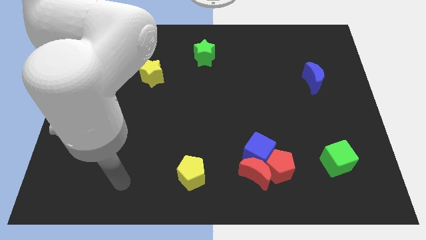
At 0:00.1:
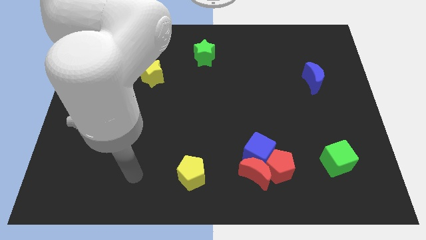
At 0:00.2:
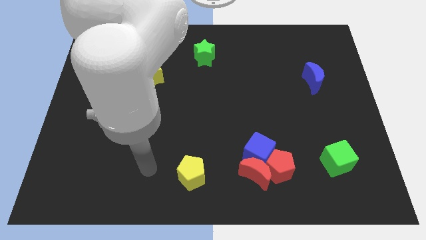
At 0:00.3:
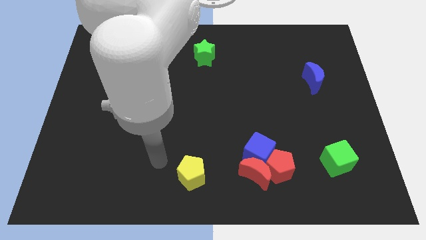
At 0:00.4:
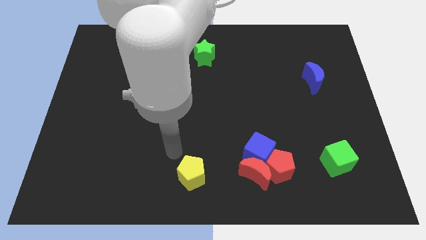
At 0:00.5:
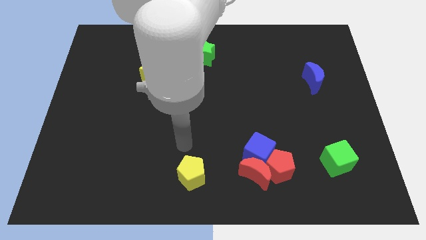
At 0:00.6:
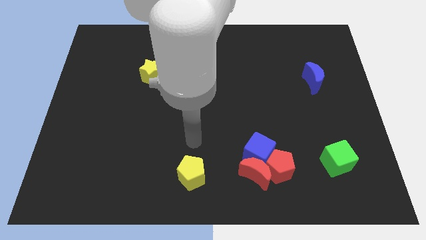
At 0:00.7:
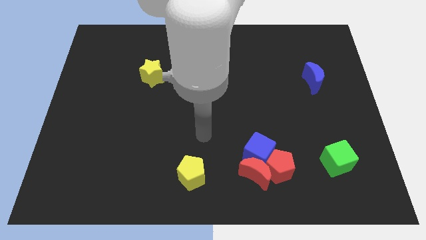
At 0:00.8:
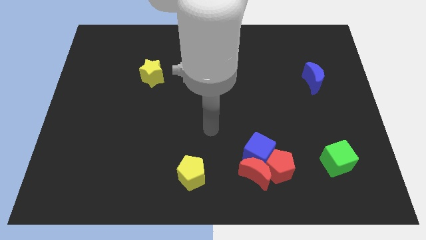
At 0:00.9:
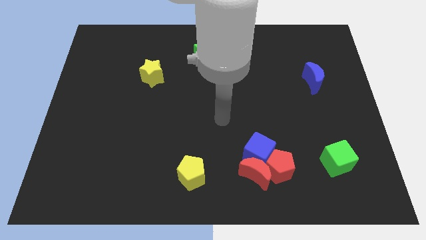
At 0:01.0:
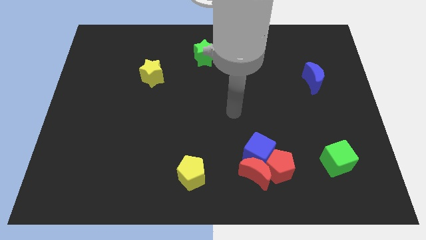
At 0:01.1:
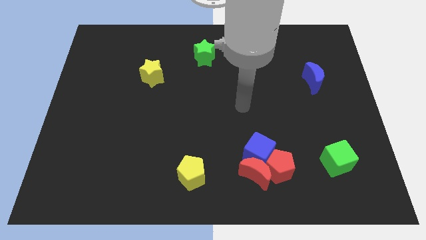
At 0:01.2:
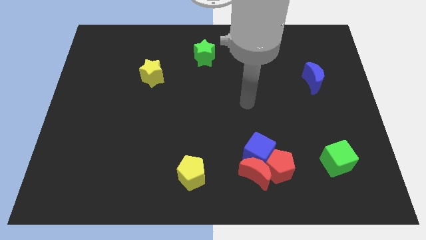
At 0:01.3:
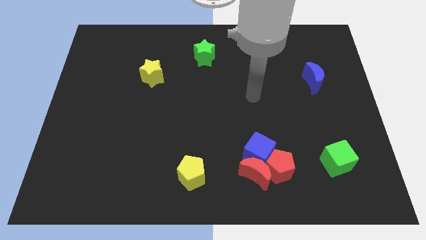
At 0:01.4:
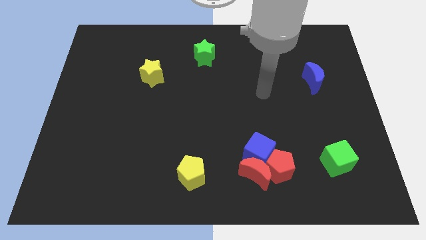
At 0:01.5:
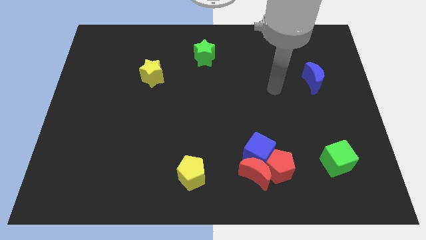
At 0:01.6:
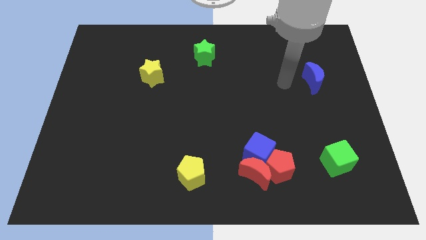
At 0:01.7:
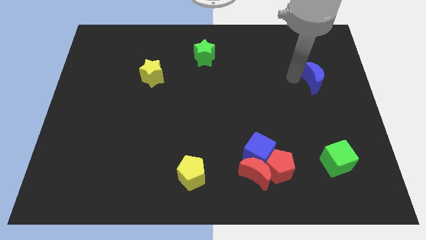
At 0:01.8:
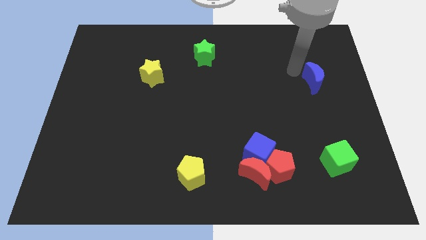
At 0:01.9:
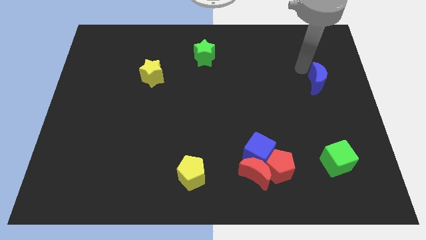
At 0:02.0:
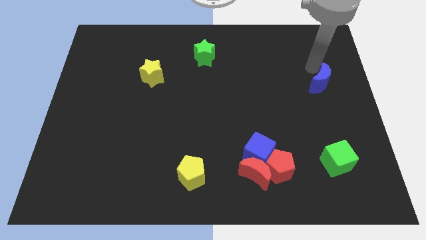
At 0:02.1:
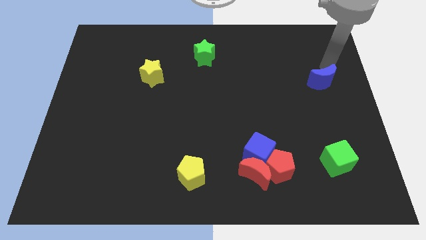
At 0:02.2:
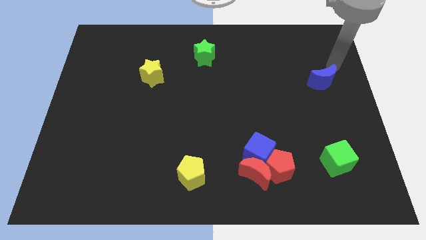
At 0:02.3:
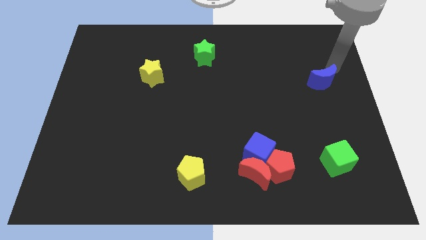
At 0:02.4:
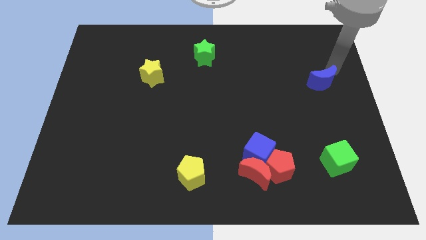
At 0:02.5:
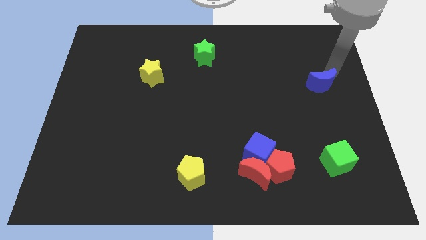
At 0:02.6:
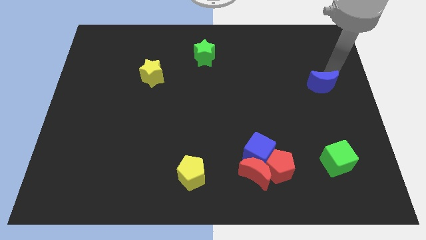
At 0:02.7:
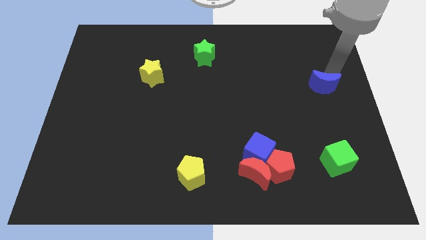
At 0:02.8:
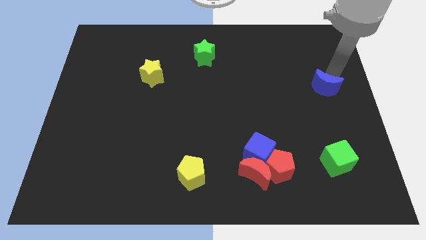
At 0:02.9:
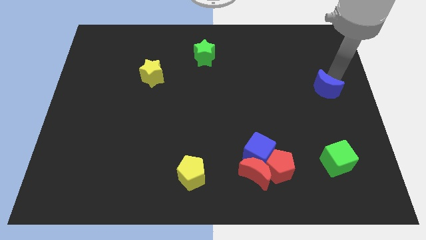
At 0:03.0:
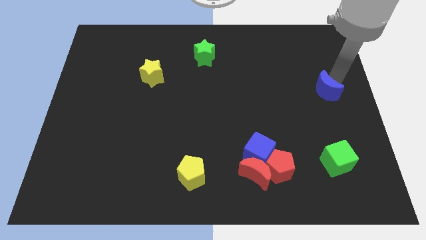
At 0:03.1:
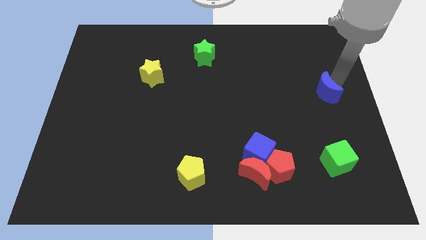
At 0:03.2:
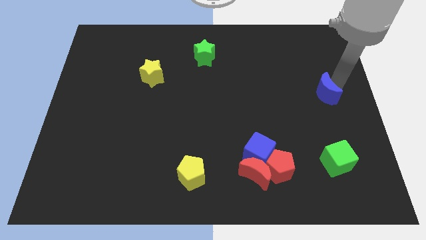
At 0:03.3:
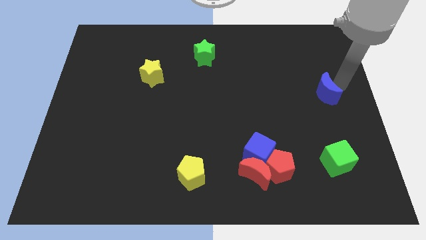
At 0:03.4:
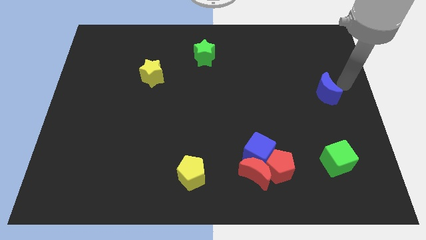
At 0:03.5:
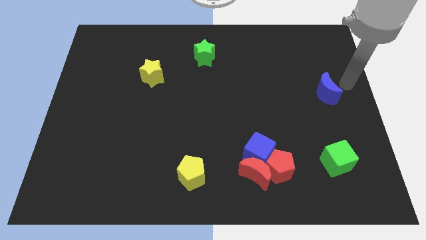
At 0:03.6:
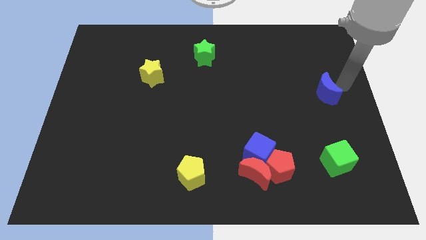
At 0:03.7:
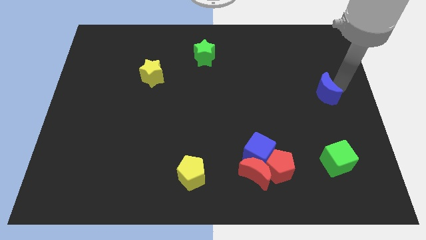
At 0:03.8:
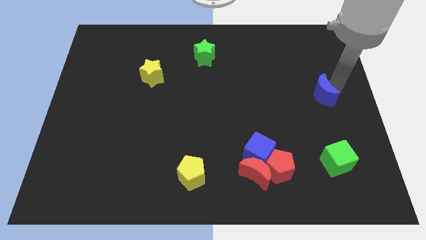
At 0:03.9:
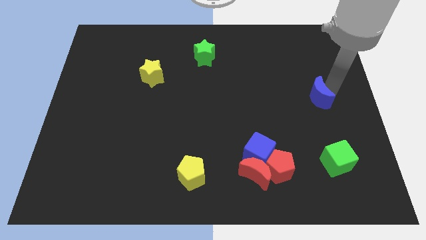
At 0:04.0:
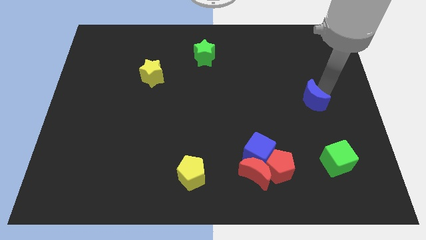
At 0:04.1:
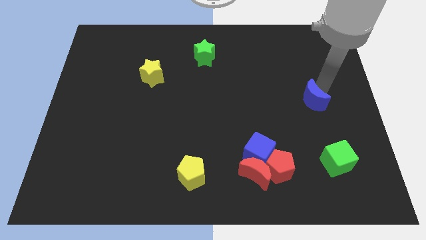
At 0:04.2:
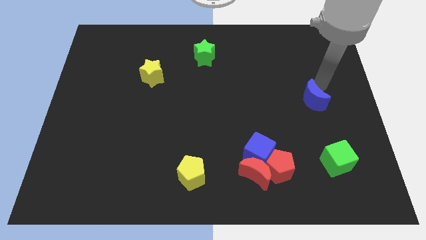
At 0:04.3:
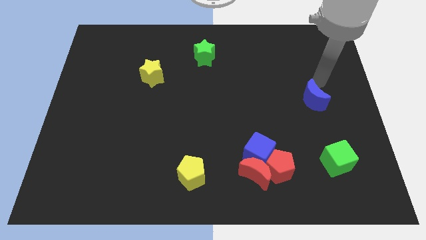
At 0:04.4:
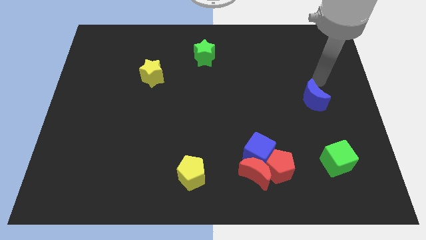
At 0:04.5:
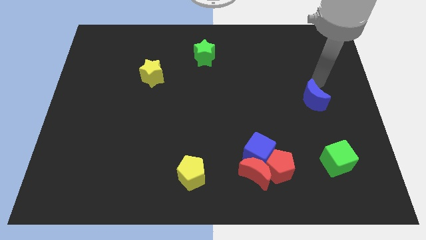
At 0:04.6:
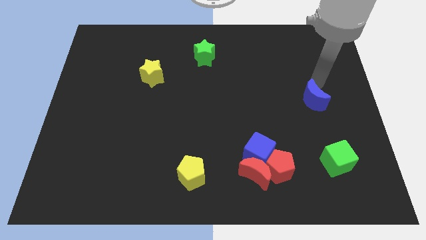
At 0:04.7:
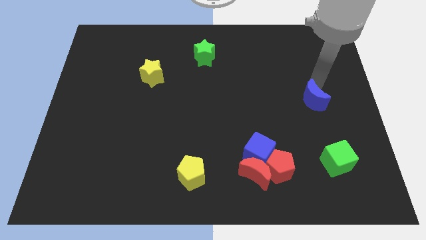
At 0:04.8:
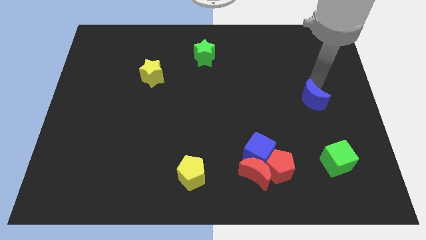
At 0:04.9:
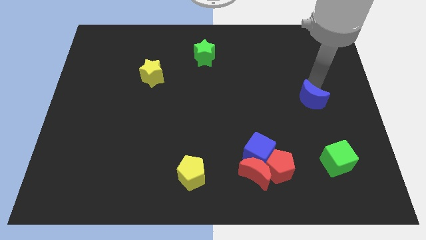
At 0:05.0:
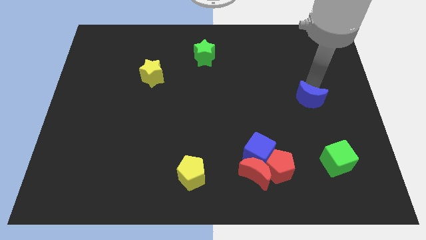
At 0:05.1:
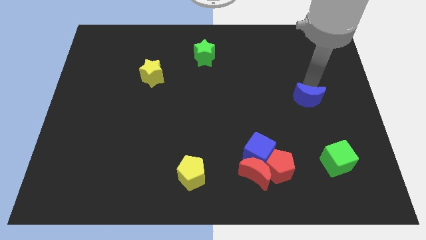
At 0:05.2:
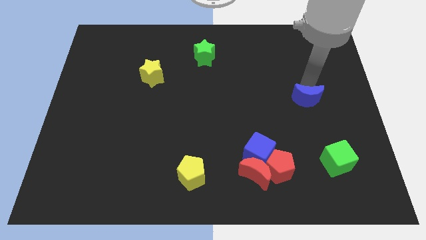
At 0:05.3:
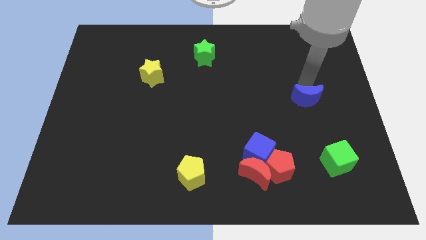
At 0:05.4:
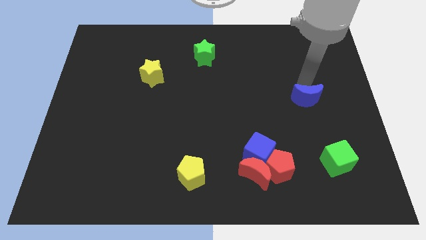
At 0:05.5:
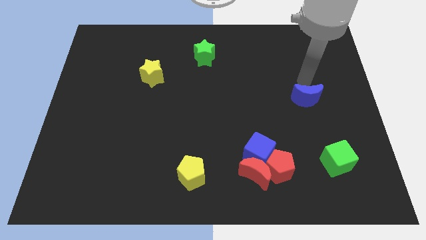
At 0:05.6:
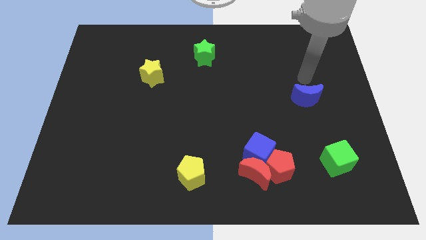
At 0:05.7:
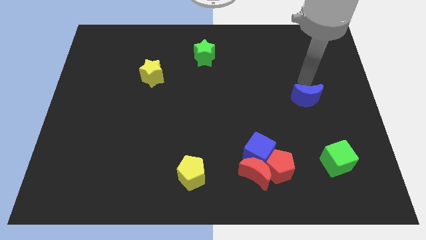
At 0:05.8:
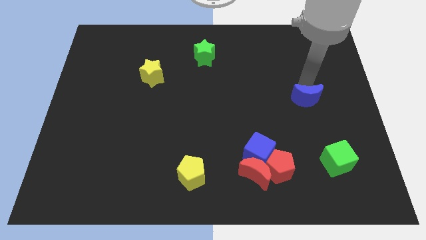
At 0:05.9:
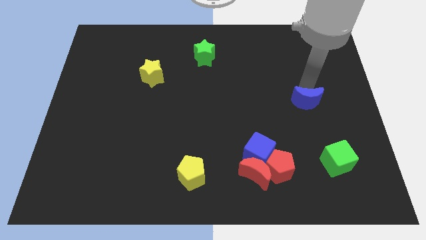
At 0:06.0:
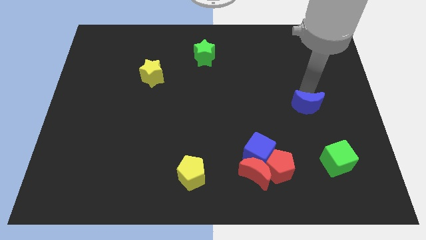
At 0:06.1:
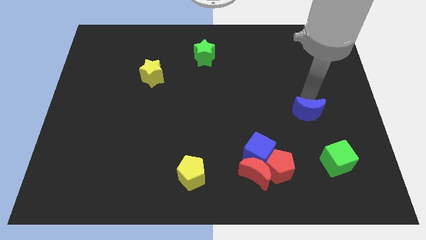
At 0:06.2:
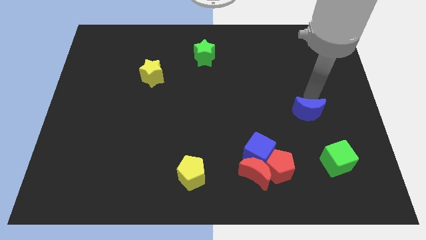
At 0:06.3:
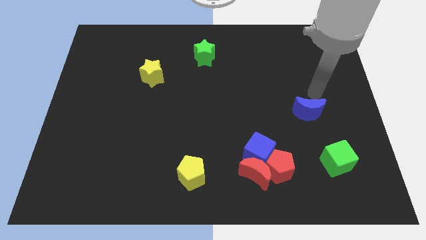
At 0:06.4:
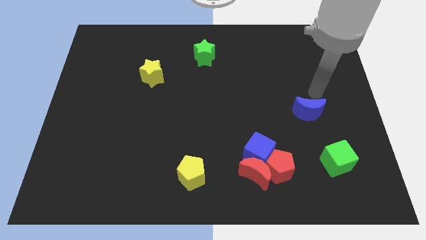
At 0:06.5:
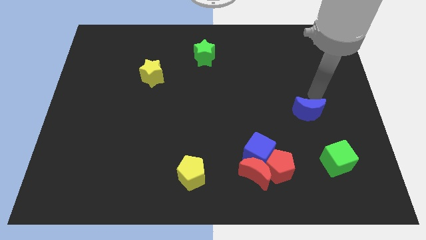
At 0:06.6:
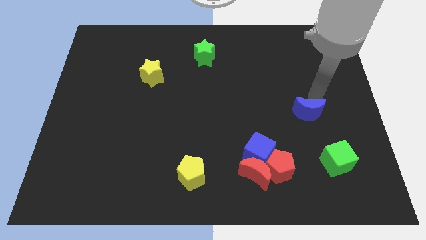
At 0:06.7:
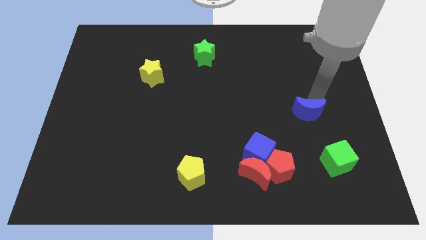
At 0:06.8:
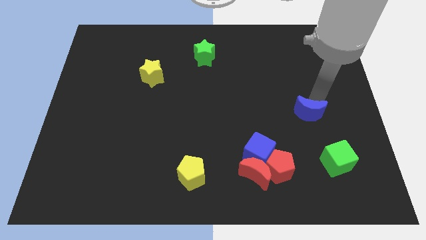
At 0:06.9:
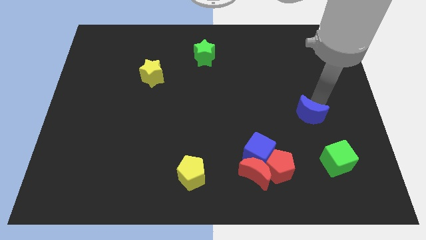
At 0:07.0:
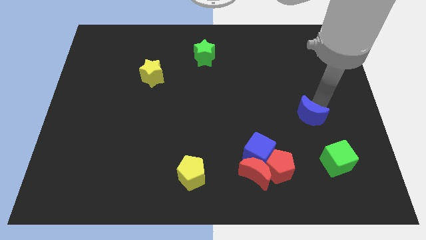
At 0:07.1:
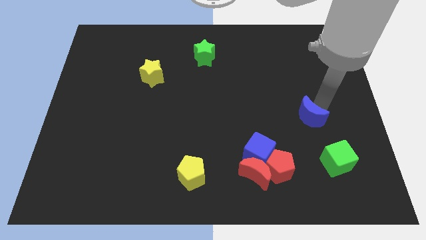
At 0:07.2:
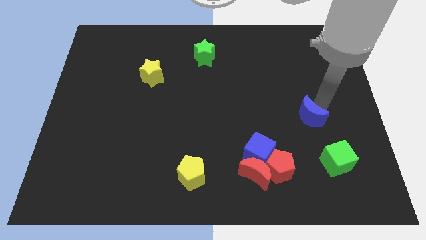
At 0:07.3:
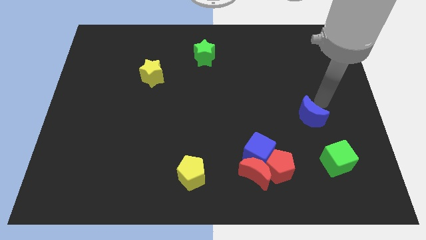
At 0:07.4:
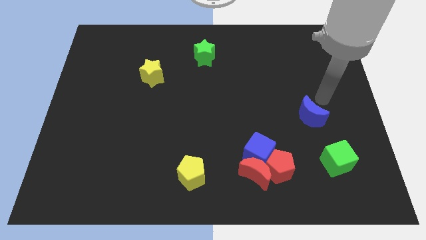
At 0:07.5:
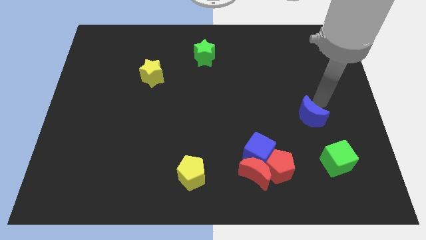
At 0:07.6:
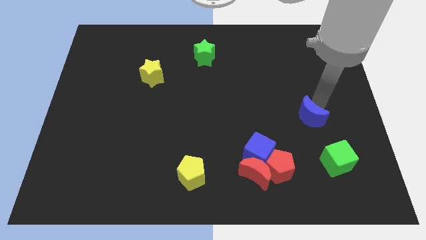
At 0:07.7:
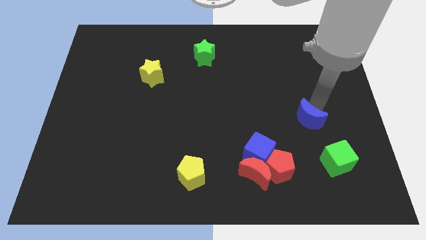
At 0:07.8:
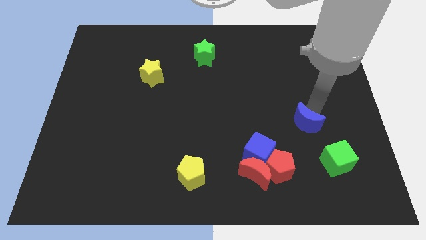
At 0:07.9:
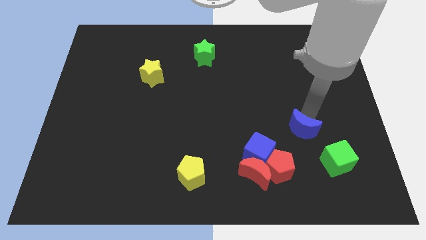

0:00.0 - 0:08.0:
move the blue moon to the top right of the red pentagon

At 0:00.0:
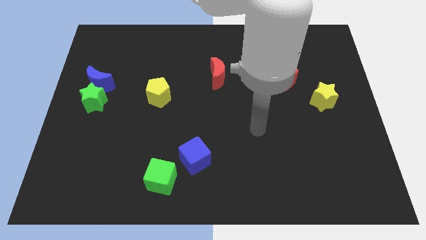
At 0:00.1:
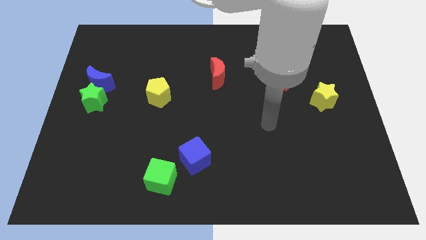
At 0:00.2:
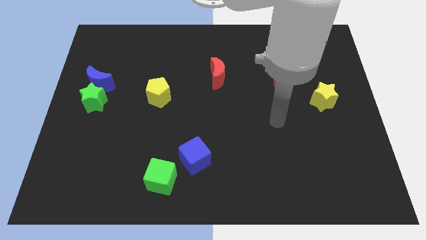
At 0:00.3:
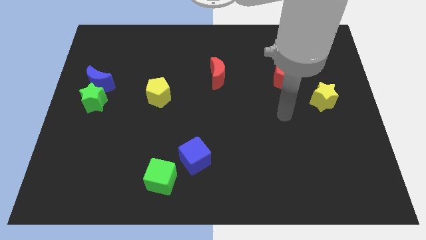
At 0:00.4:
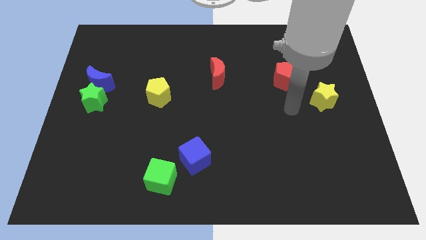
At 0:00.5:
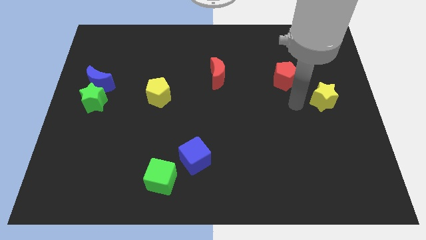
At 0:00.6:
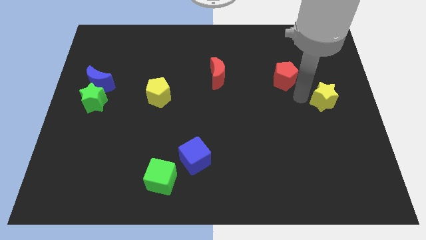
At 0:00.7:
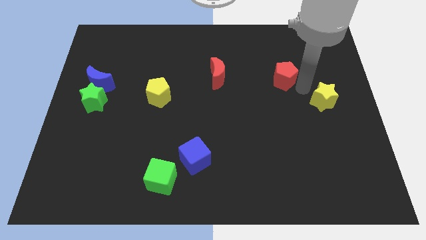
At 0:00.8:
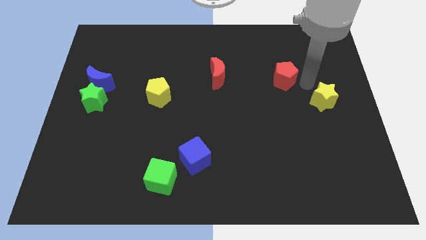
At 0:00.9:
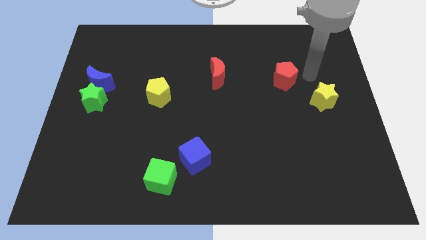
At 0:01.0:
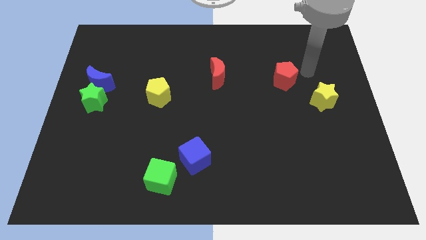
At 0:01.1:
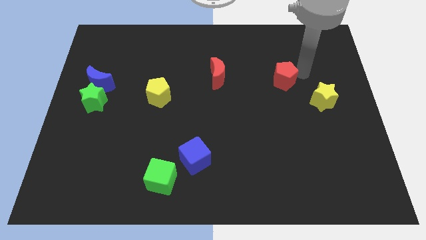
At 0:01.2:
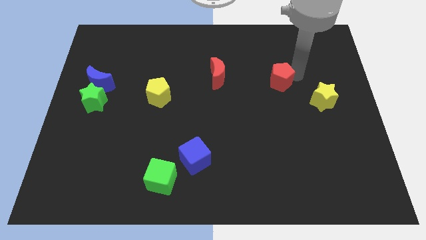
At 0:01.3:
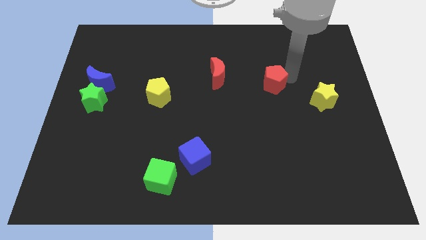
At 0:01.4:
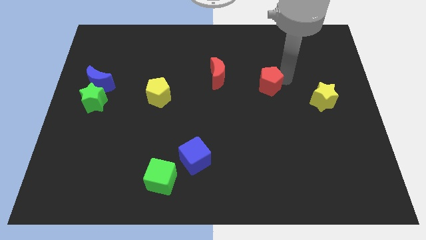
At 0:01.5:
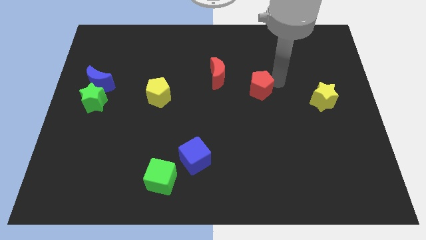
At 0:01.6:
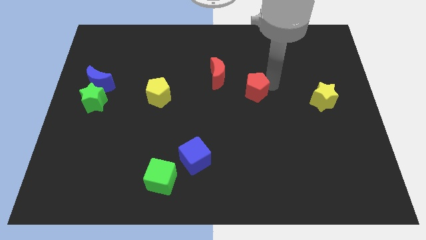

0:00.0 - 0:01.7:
move the red pentagon to the bottom right of the red moon
